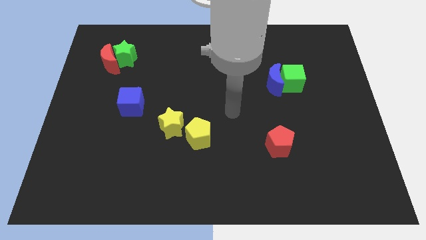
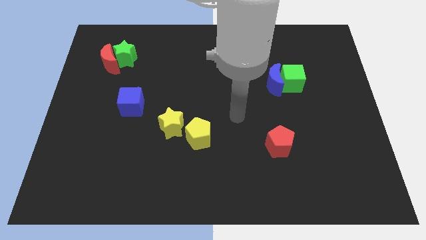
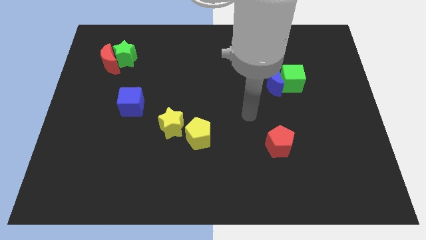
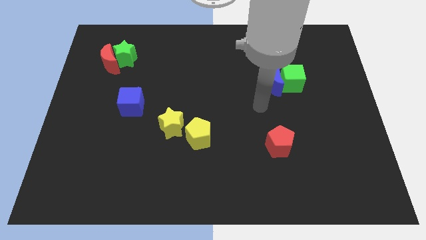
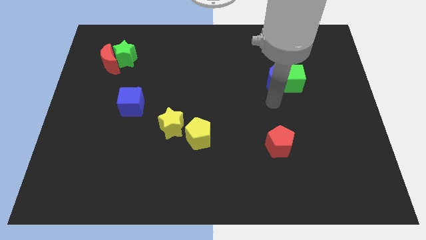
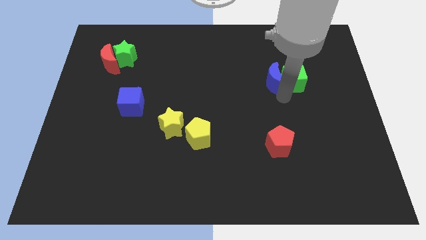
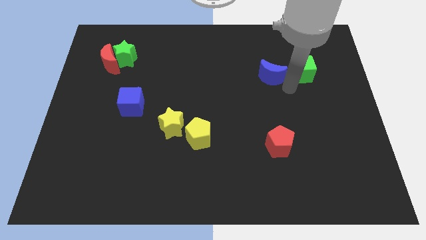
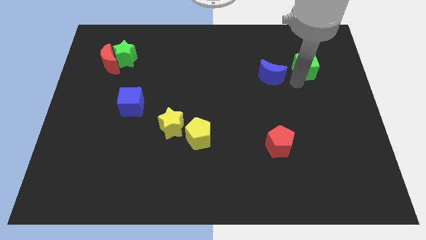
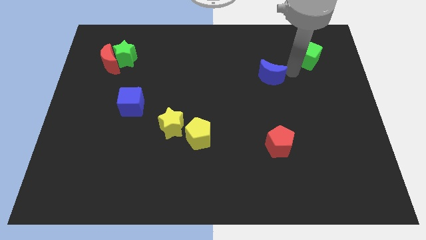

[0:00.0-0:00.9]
pull the blue moon apart from the green cube

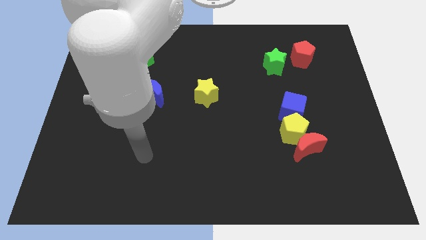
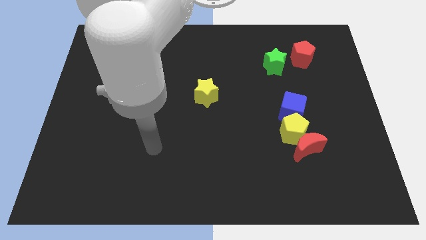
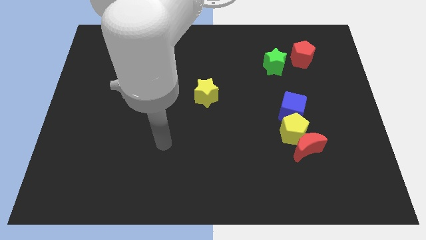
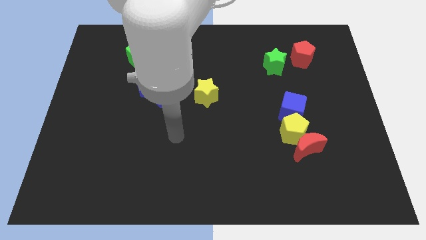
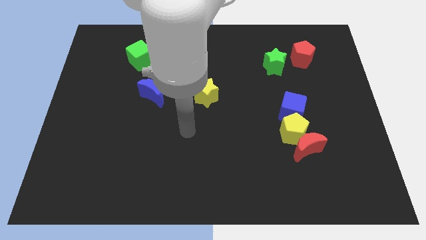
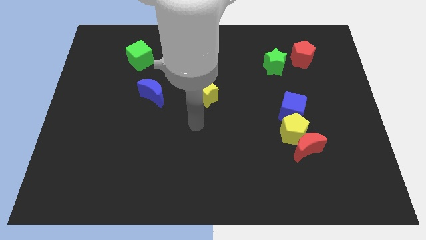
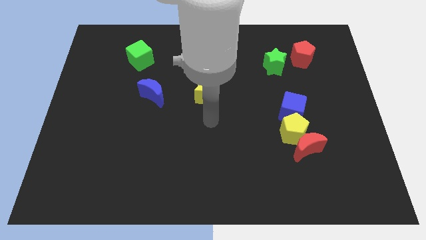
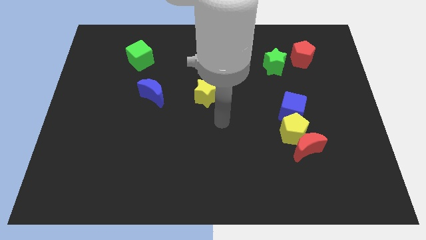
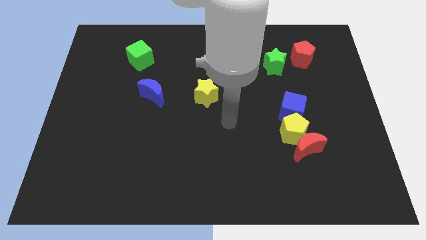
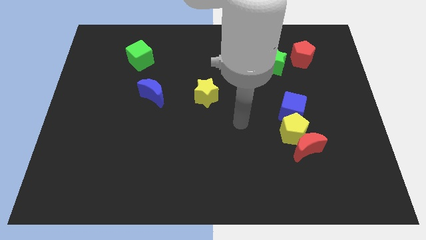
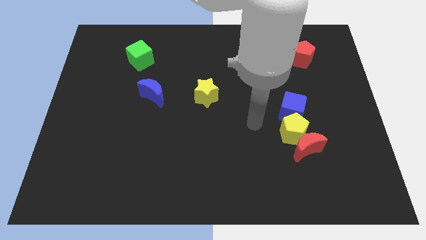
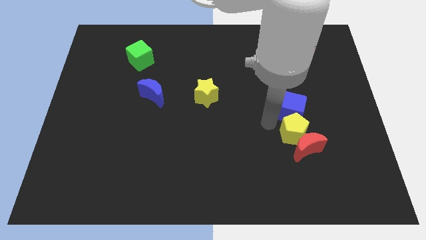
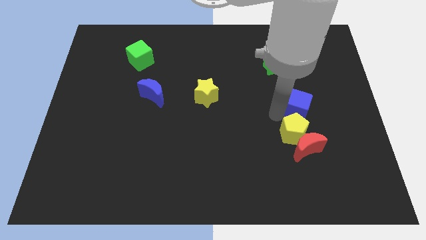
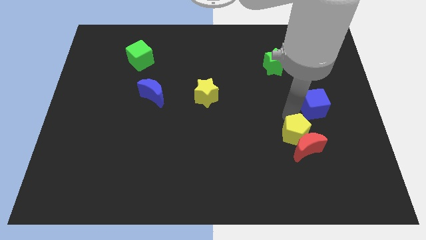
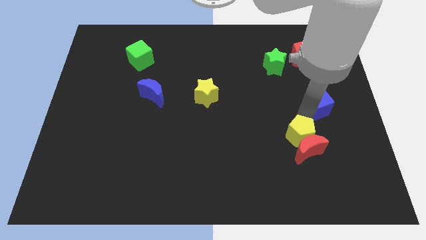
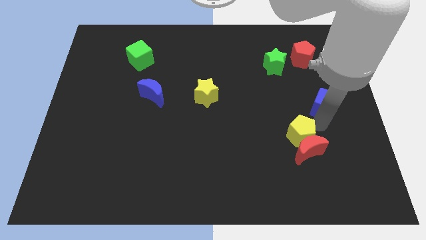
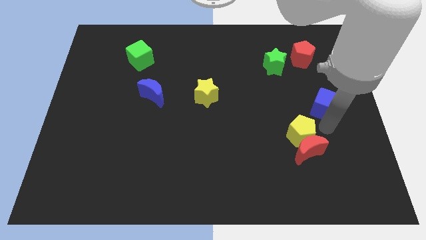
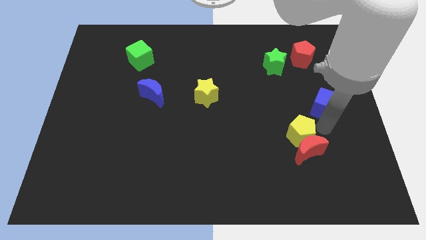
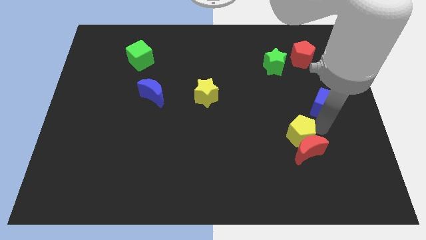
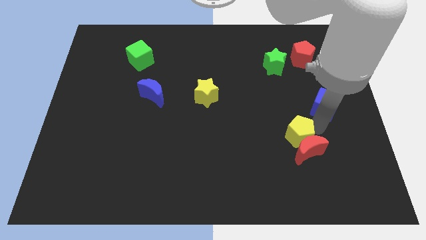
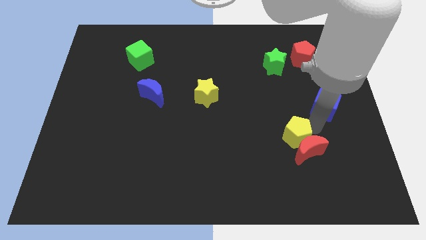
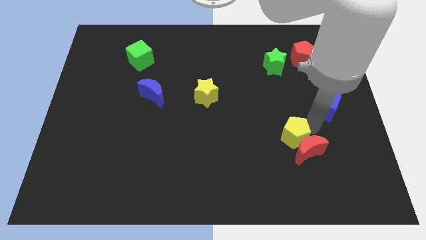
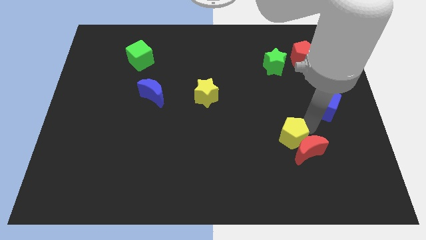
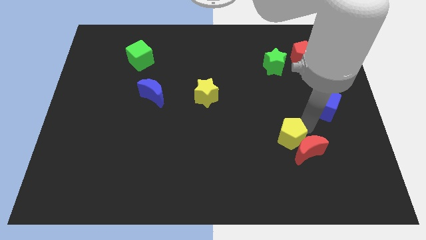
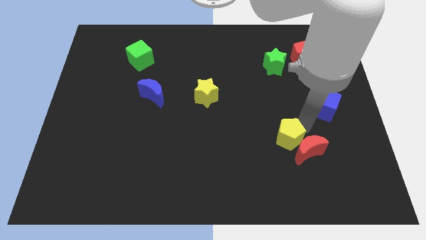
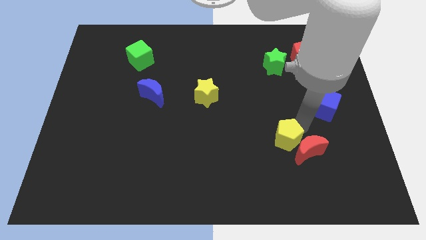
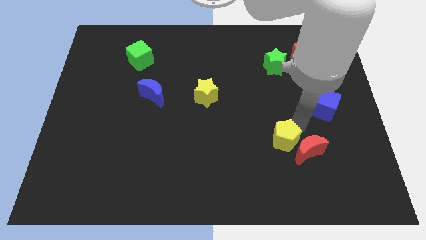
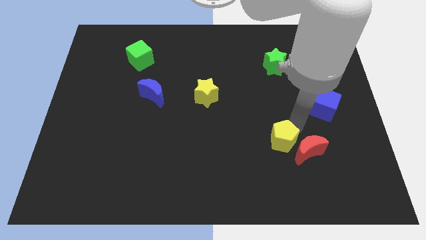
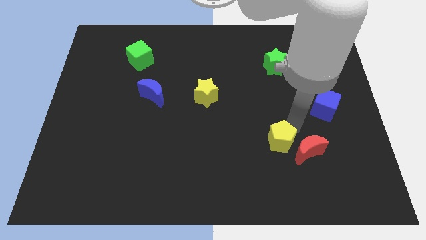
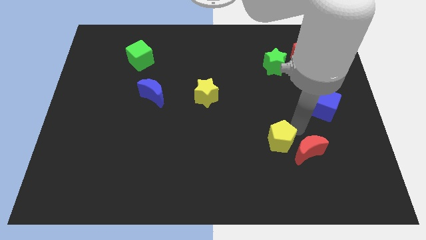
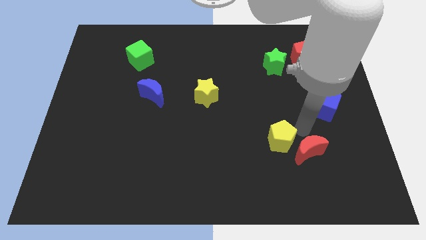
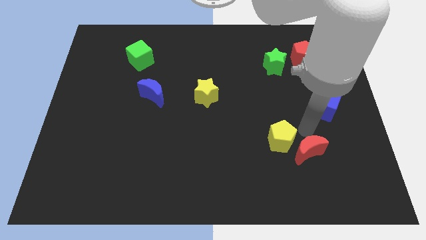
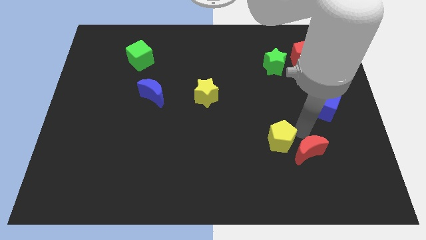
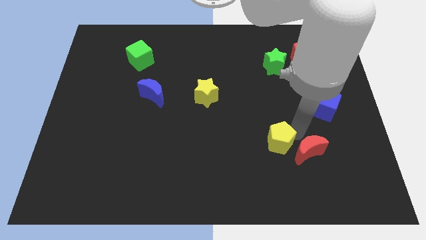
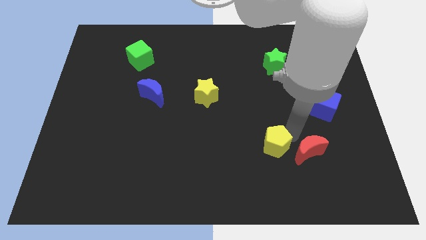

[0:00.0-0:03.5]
separate the yellow pentagon from the red moon and blue cube

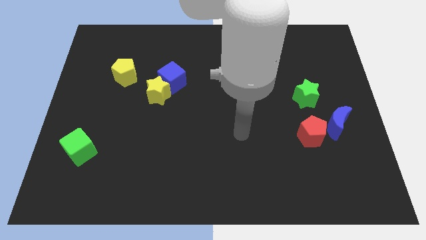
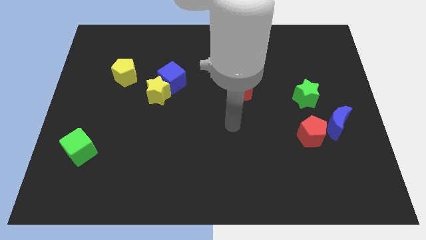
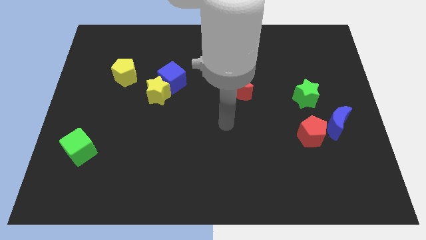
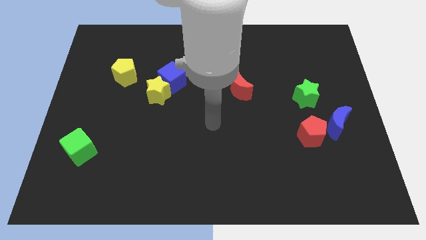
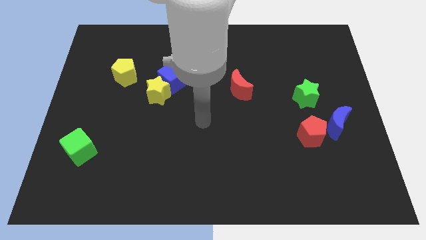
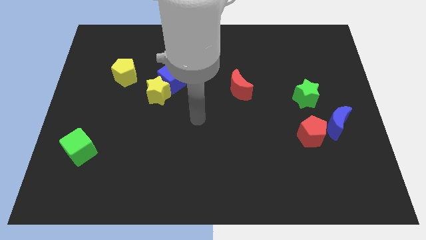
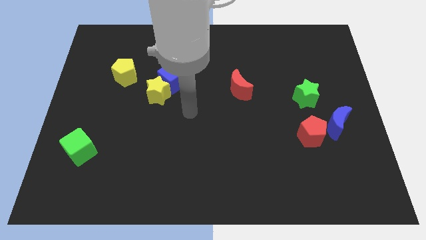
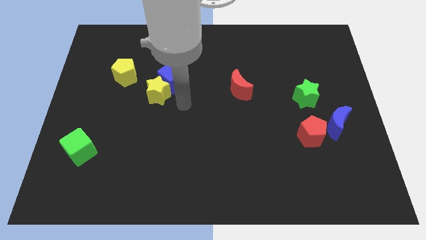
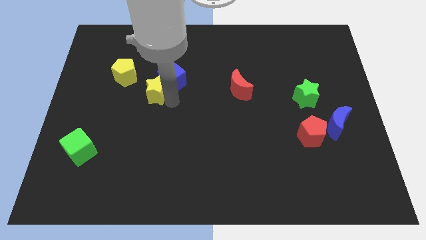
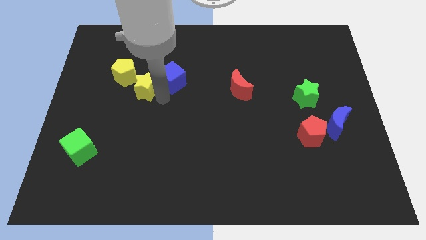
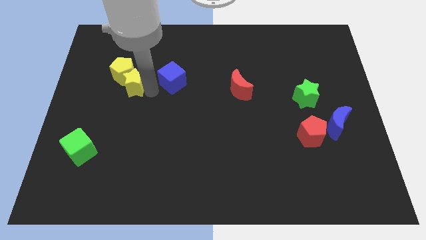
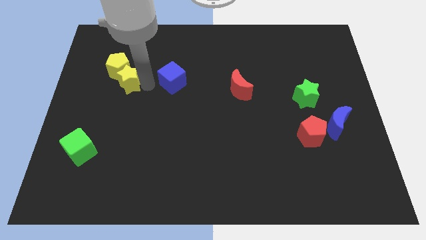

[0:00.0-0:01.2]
pull the blue cube apart from the yellow star

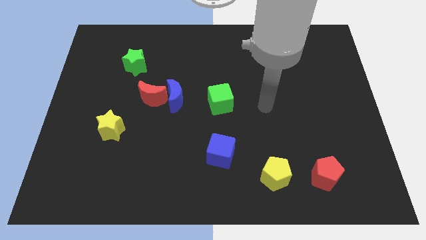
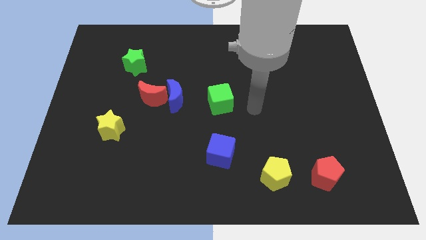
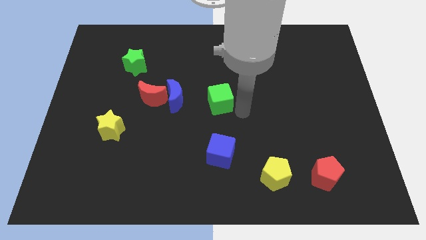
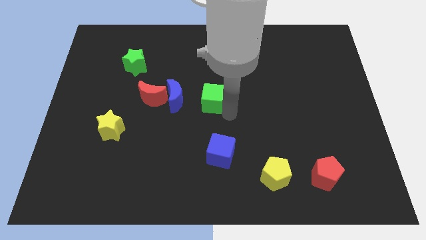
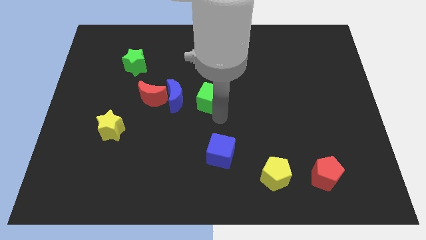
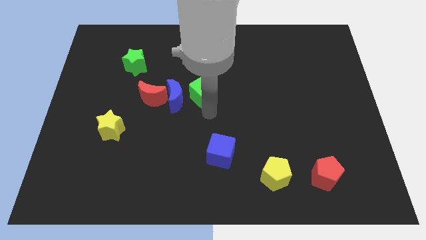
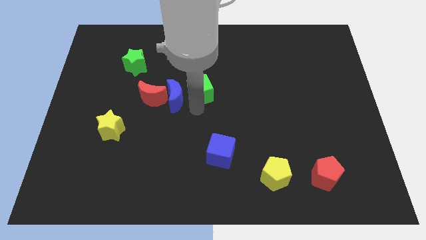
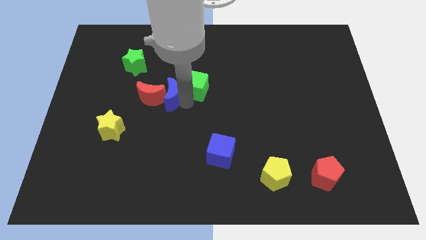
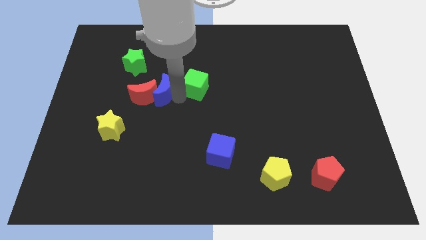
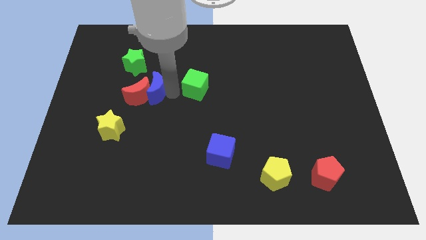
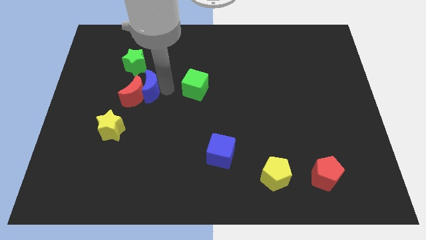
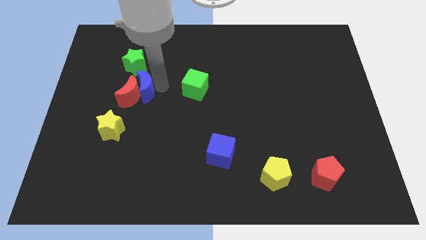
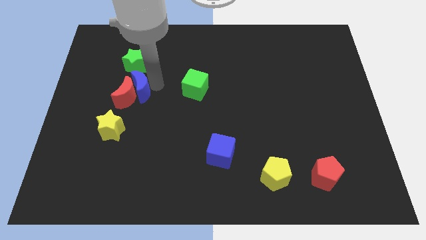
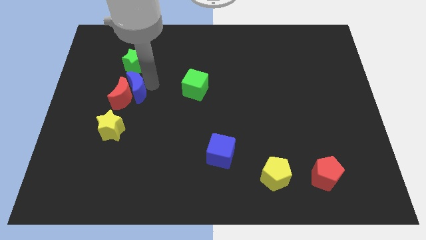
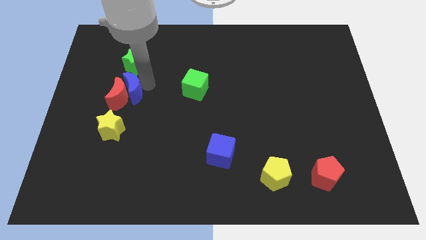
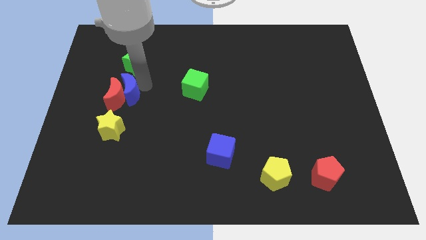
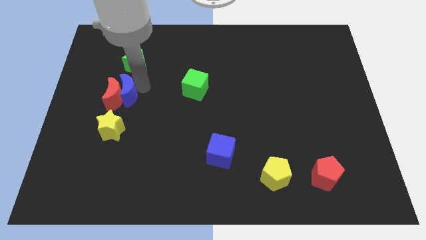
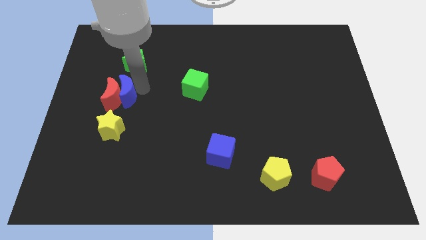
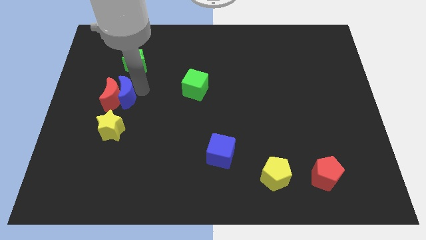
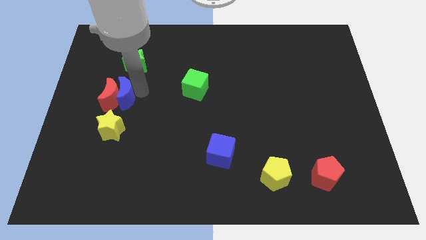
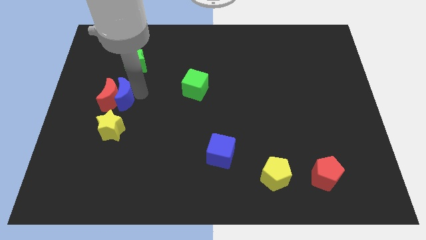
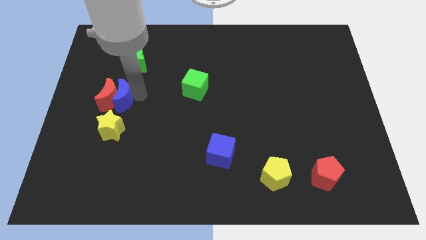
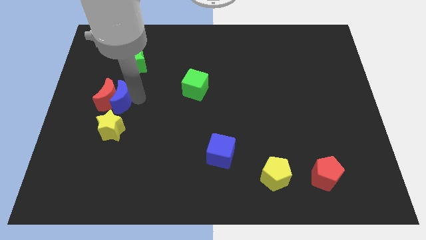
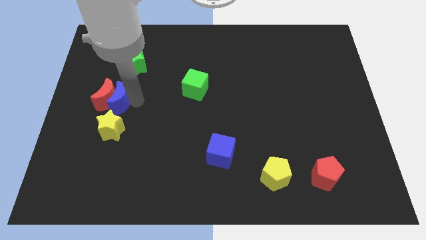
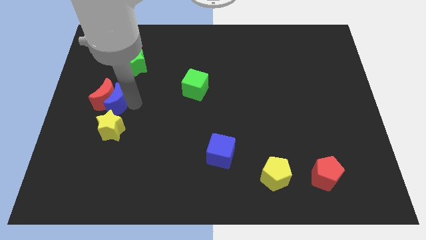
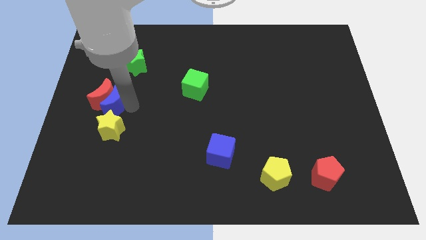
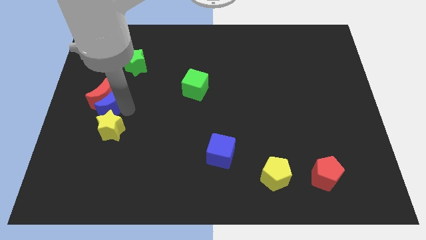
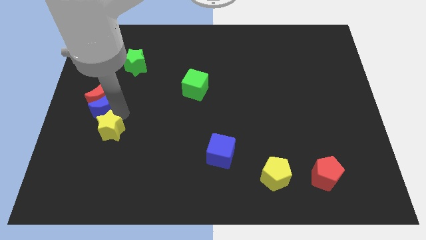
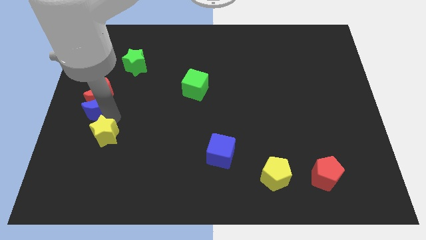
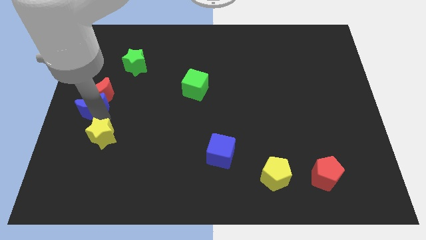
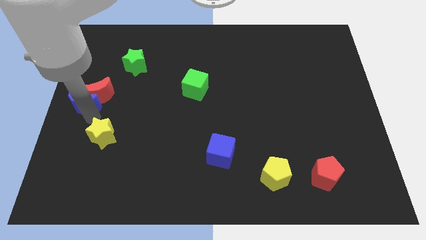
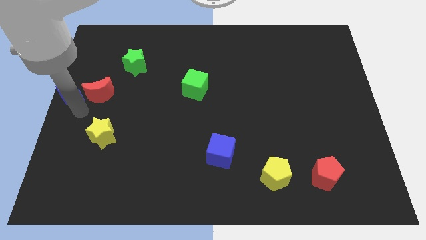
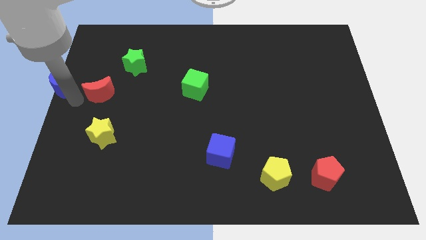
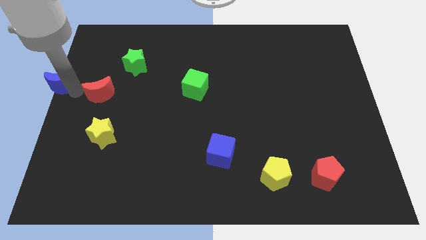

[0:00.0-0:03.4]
move the red moon away from the blue moon

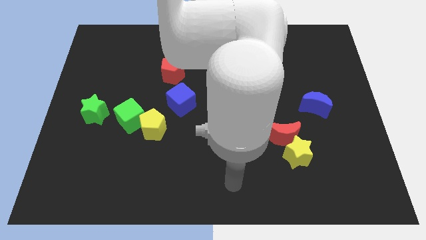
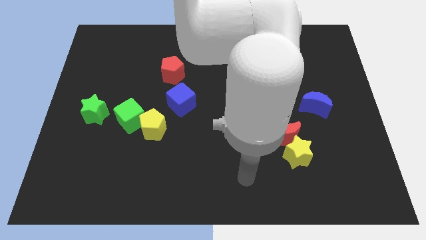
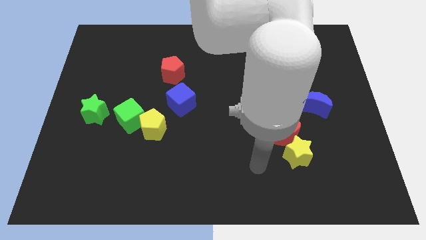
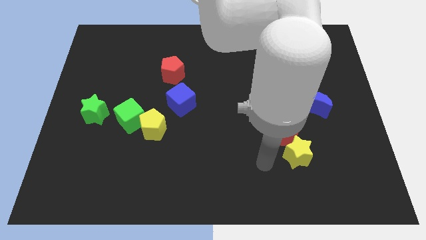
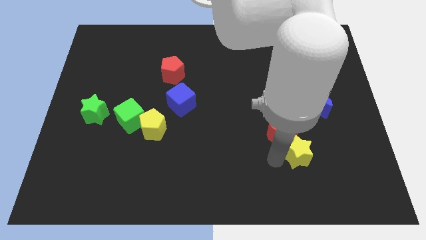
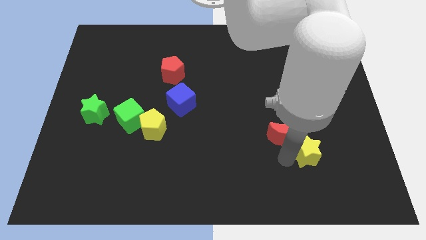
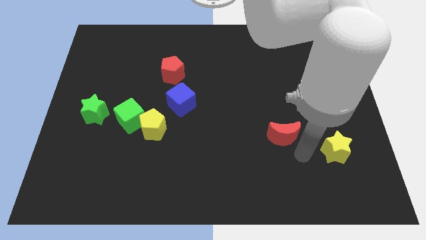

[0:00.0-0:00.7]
move the red moon away from the yellow star
